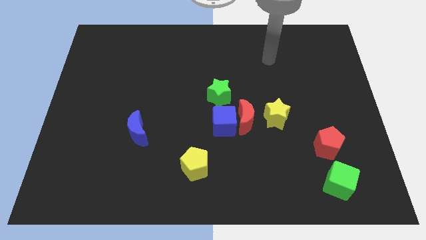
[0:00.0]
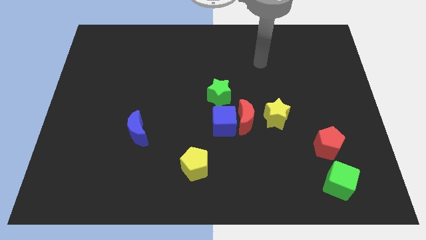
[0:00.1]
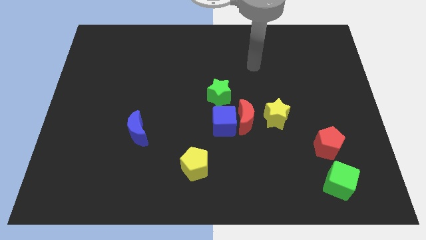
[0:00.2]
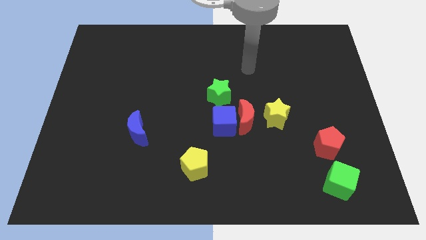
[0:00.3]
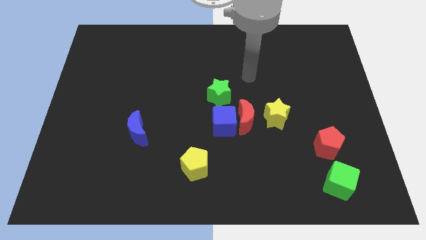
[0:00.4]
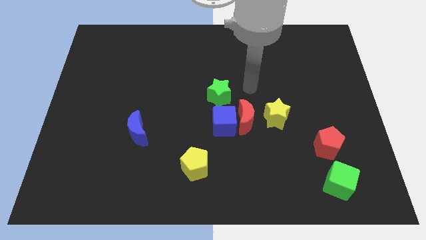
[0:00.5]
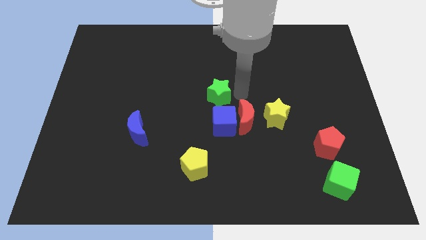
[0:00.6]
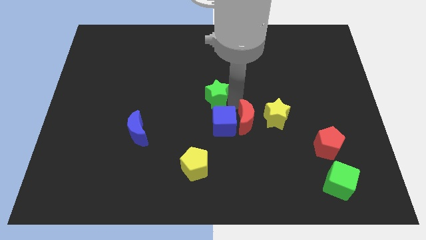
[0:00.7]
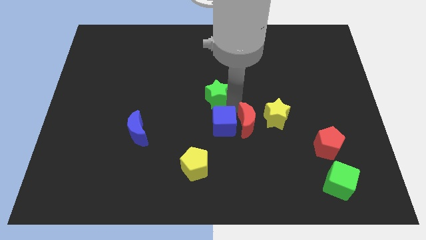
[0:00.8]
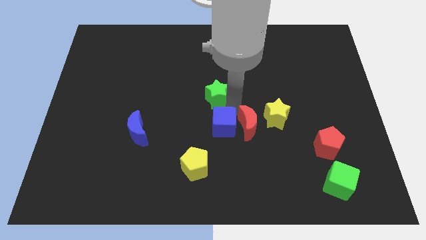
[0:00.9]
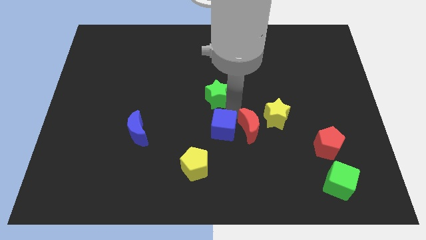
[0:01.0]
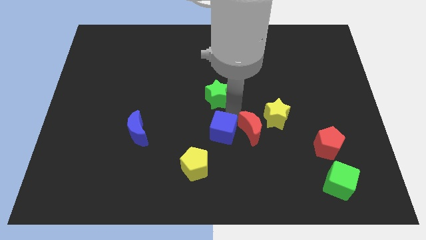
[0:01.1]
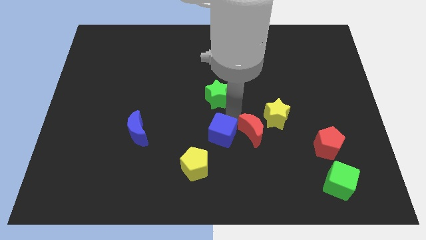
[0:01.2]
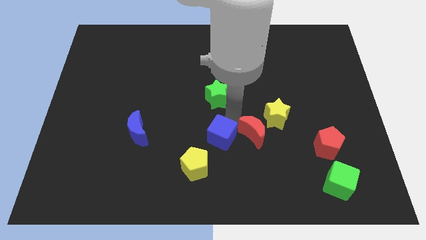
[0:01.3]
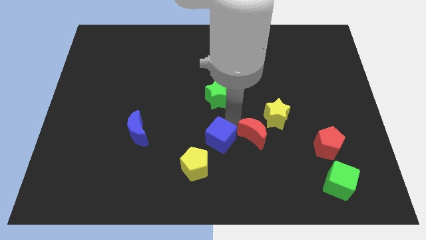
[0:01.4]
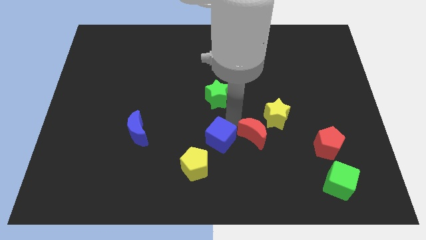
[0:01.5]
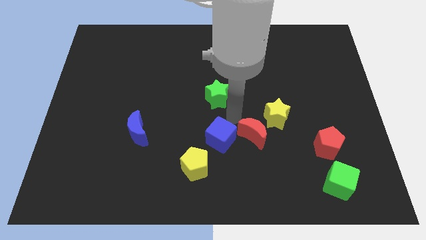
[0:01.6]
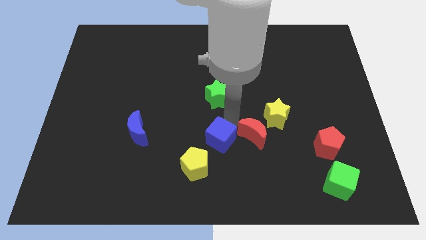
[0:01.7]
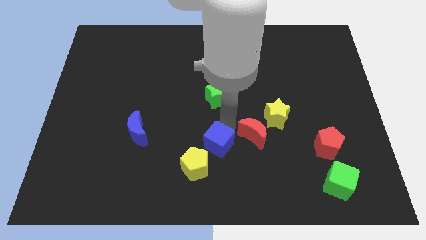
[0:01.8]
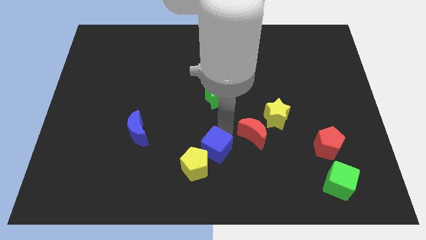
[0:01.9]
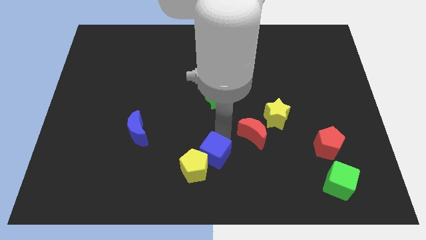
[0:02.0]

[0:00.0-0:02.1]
separate the blue cube from the red moon and green star

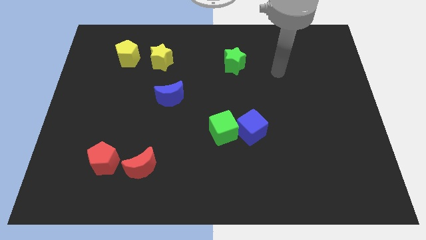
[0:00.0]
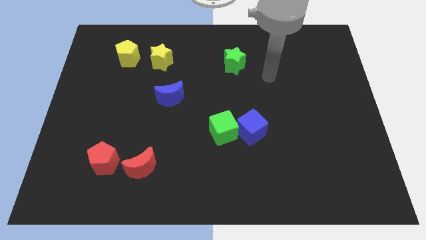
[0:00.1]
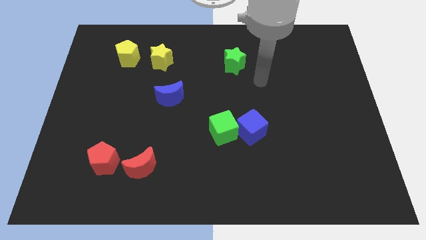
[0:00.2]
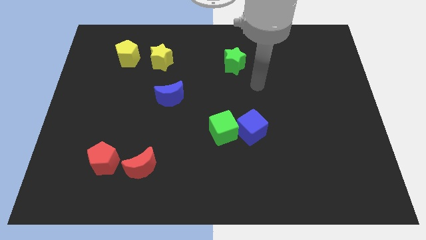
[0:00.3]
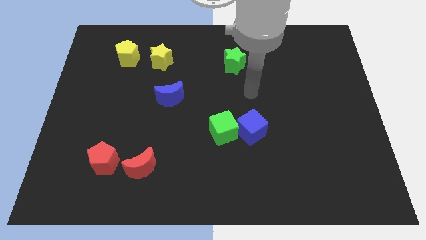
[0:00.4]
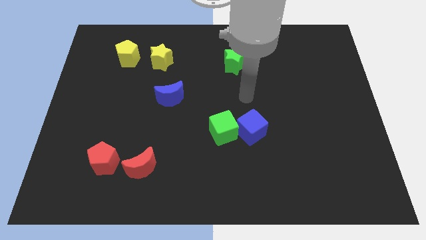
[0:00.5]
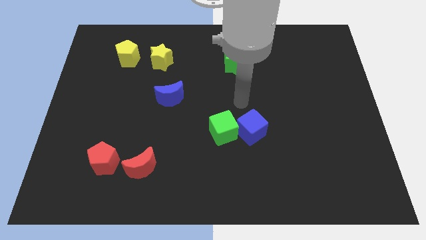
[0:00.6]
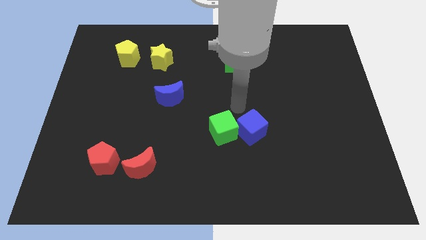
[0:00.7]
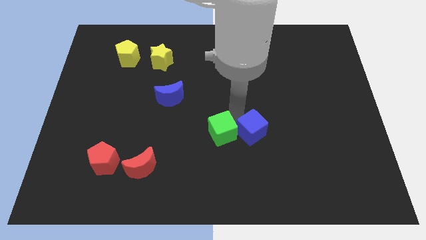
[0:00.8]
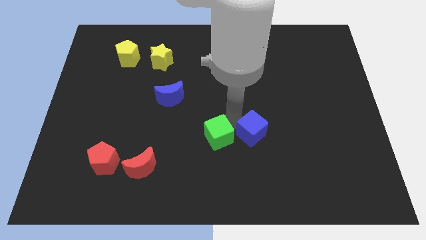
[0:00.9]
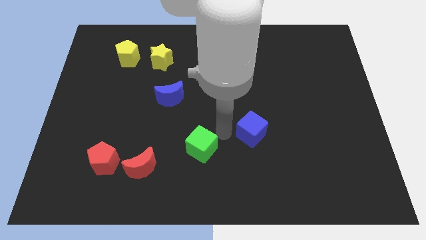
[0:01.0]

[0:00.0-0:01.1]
separate the blue cube from the green cube

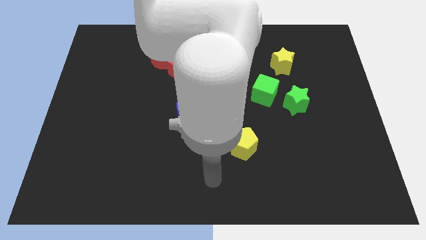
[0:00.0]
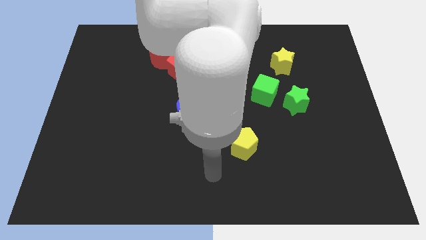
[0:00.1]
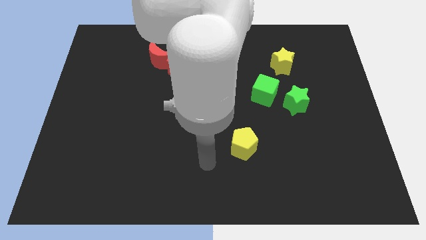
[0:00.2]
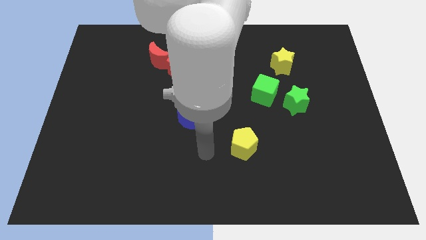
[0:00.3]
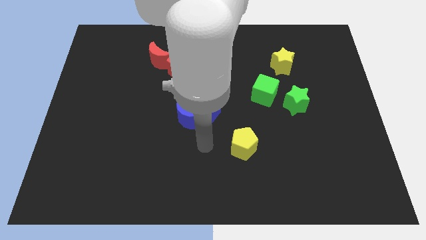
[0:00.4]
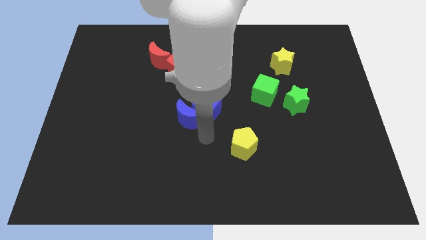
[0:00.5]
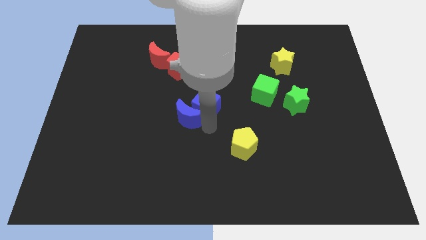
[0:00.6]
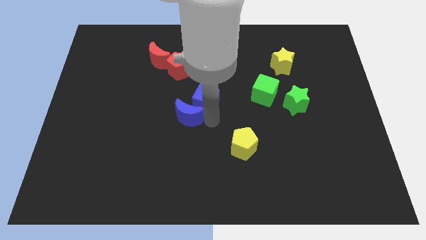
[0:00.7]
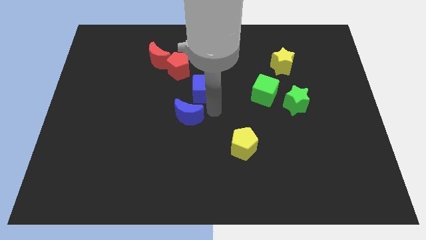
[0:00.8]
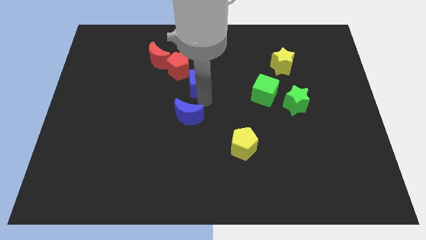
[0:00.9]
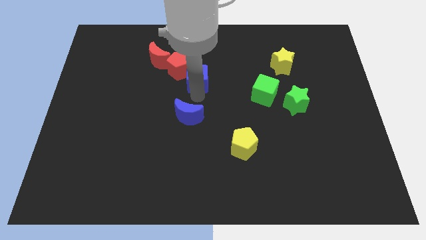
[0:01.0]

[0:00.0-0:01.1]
move the blue moon away from the blue cube

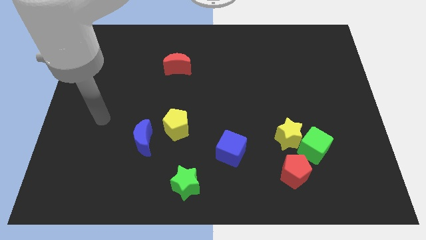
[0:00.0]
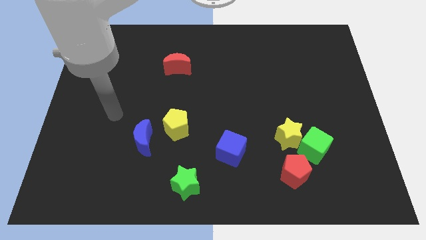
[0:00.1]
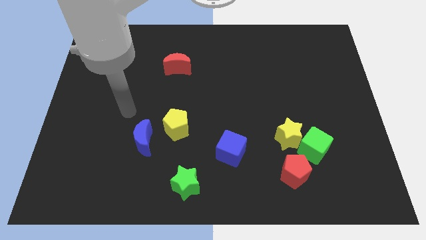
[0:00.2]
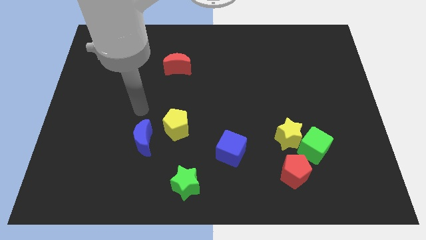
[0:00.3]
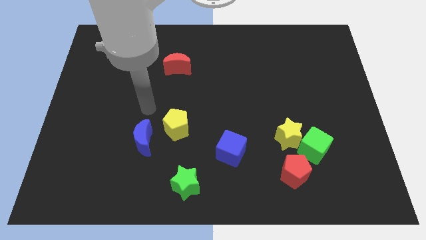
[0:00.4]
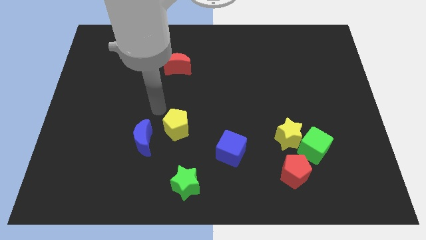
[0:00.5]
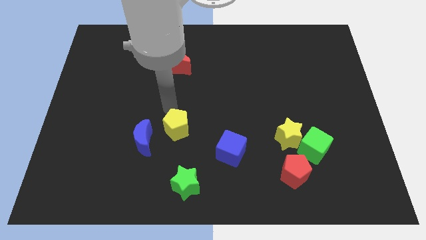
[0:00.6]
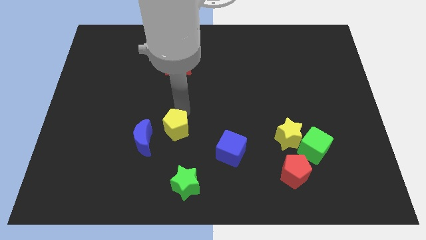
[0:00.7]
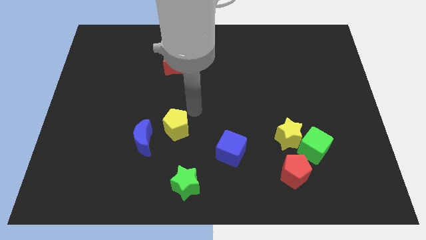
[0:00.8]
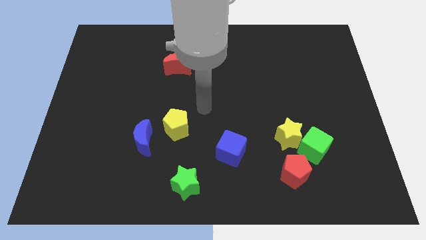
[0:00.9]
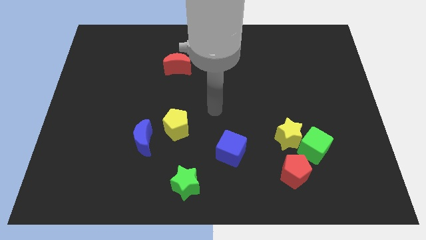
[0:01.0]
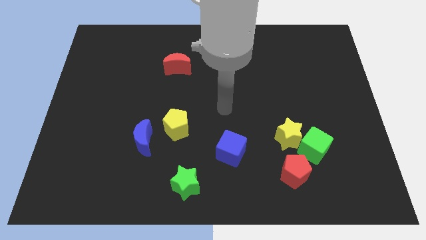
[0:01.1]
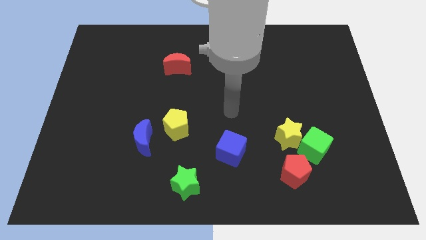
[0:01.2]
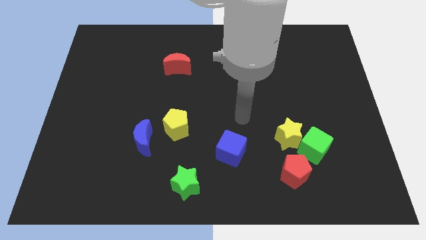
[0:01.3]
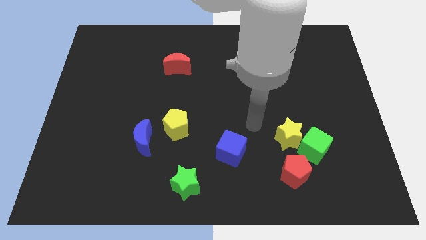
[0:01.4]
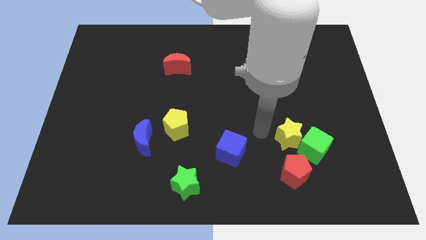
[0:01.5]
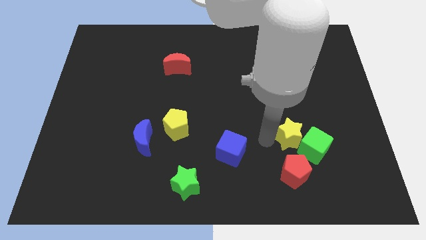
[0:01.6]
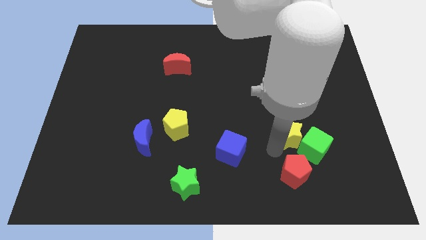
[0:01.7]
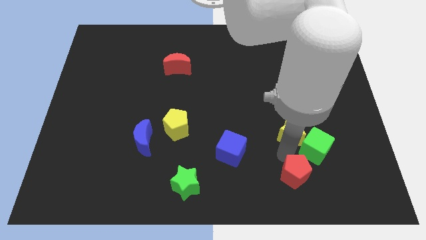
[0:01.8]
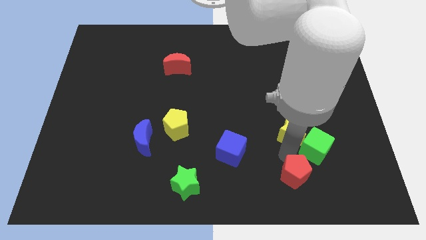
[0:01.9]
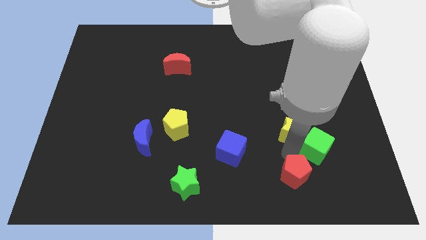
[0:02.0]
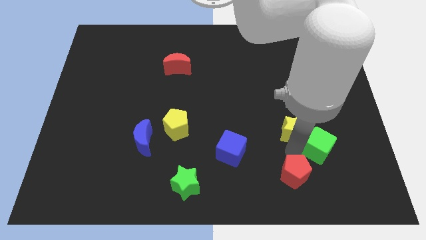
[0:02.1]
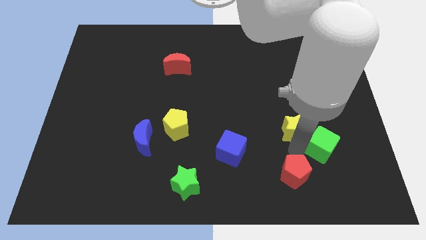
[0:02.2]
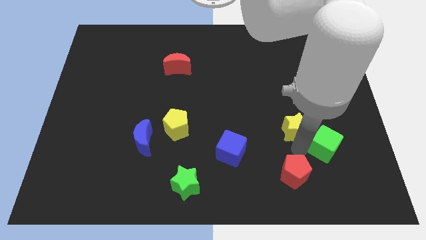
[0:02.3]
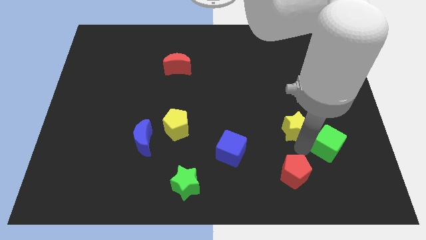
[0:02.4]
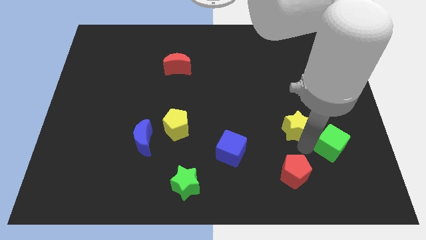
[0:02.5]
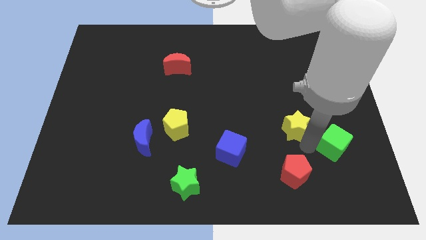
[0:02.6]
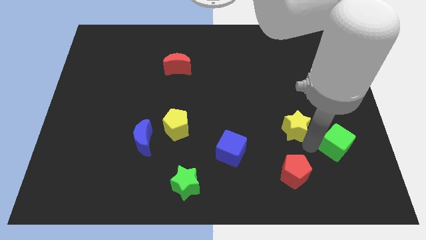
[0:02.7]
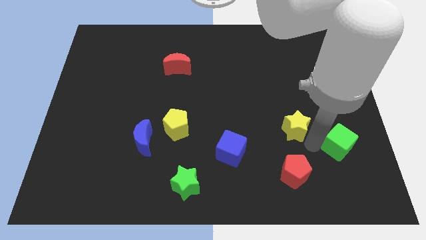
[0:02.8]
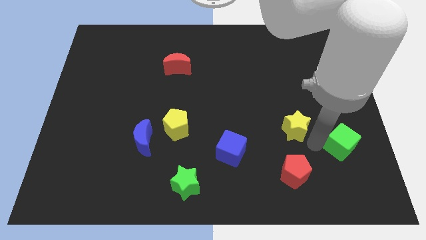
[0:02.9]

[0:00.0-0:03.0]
separate the green cube from the yellow star and red pentagon

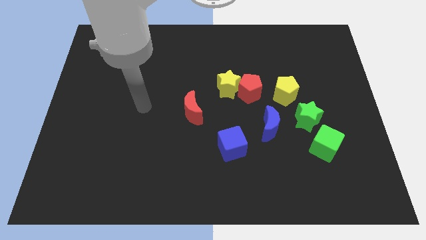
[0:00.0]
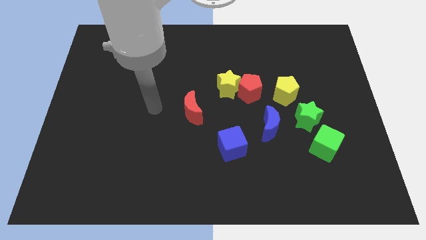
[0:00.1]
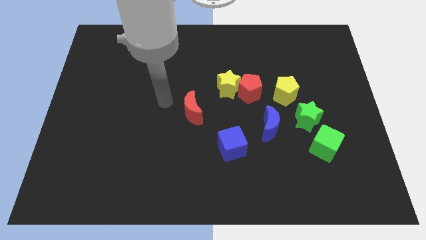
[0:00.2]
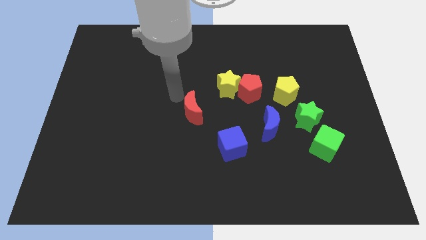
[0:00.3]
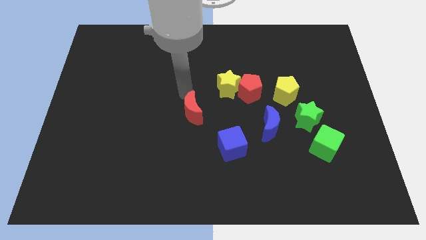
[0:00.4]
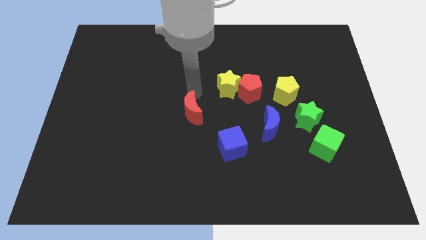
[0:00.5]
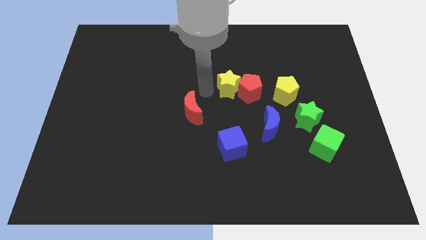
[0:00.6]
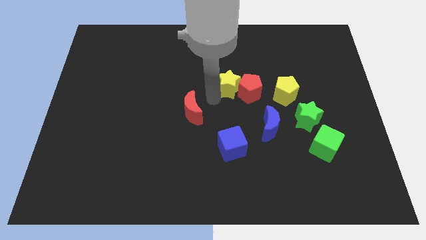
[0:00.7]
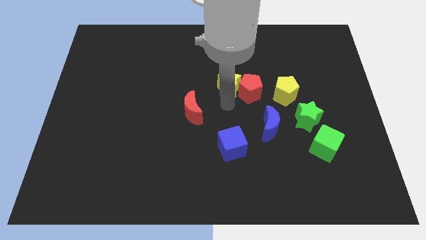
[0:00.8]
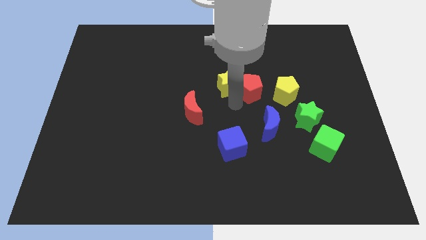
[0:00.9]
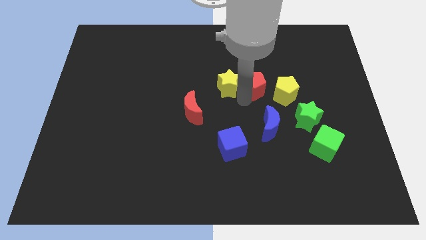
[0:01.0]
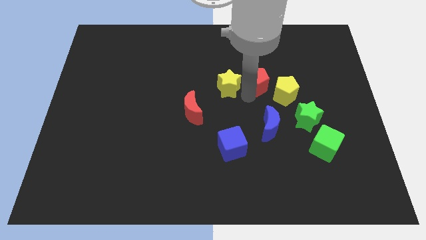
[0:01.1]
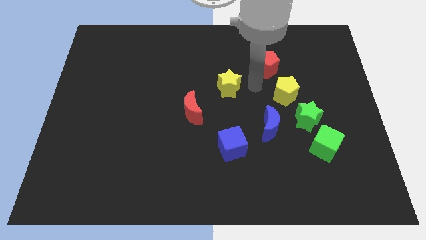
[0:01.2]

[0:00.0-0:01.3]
move the yellow star away from the red pentagon

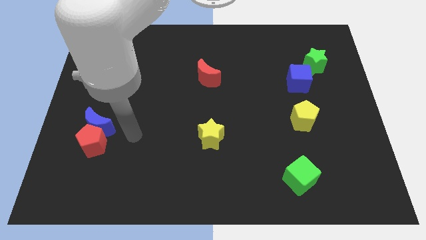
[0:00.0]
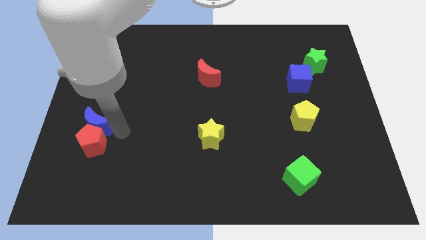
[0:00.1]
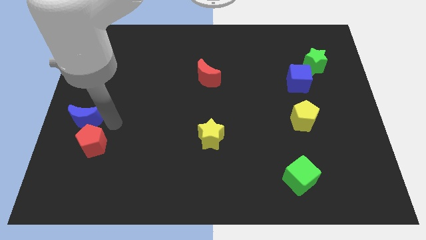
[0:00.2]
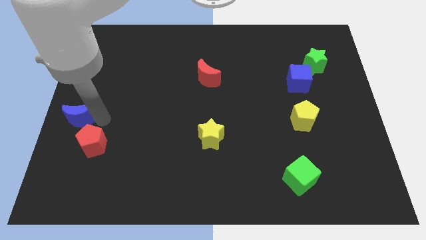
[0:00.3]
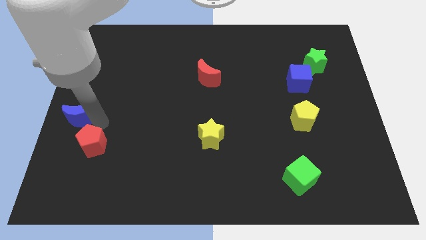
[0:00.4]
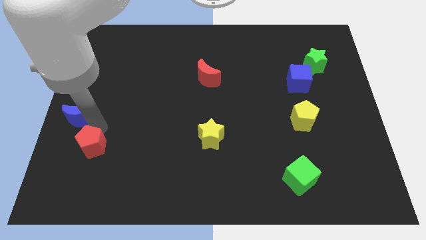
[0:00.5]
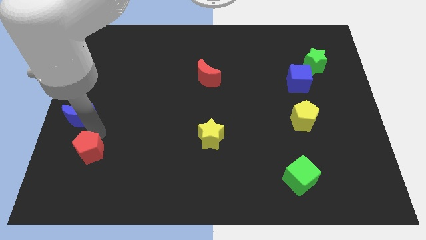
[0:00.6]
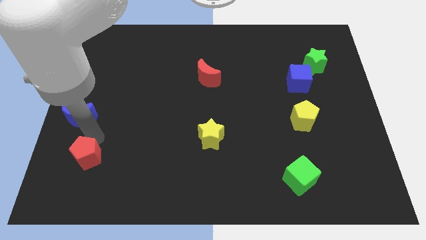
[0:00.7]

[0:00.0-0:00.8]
pull the red pentagon apart from the blue moon

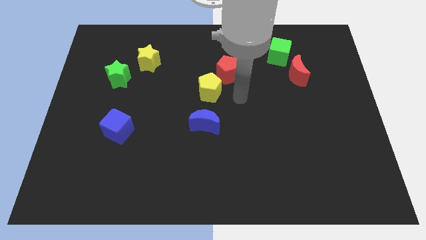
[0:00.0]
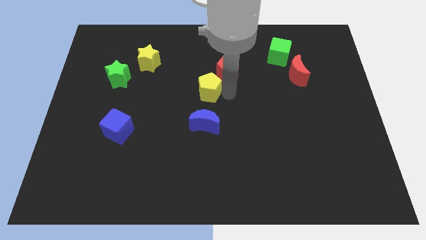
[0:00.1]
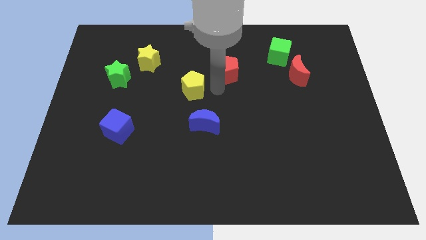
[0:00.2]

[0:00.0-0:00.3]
pull the red pentagon apart from the yellow pentagon
